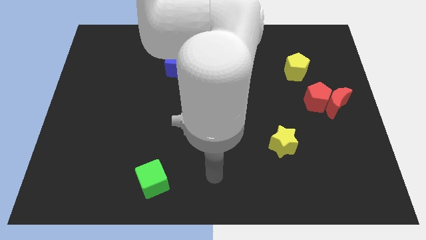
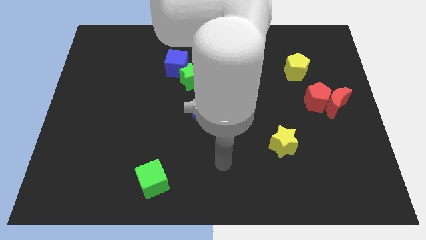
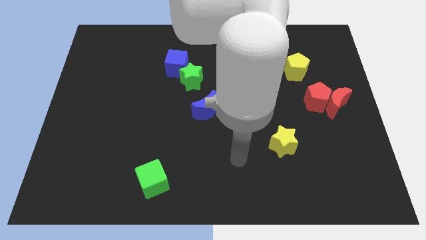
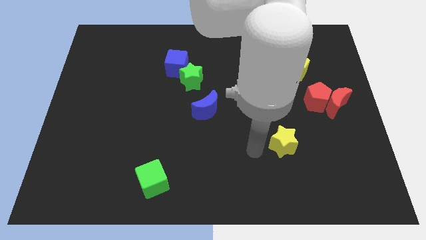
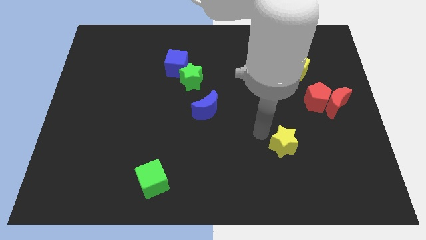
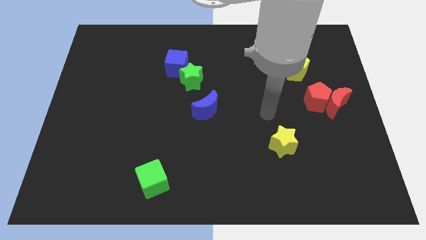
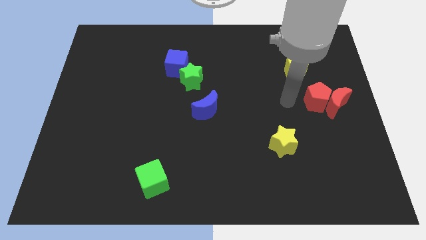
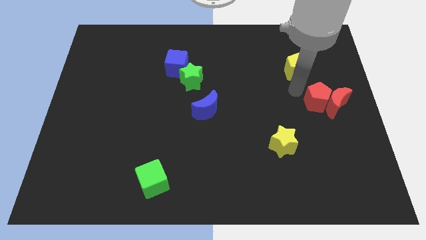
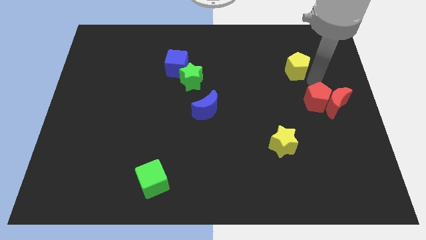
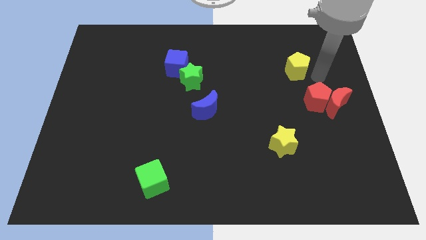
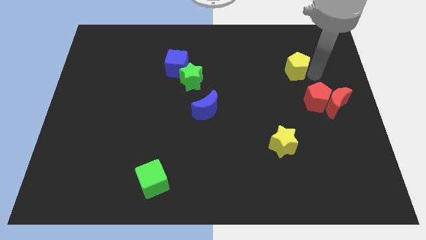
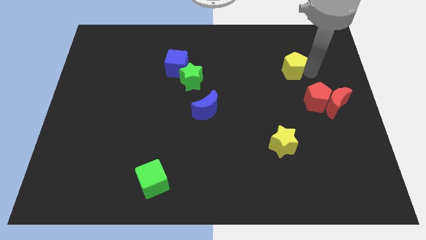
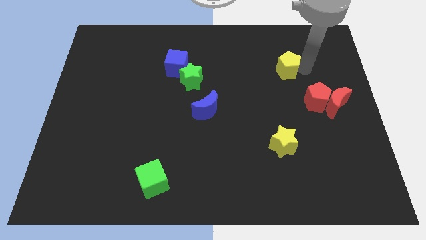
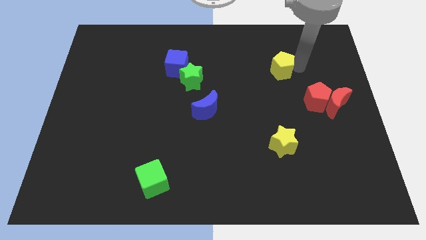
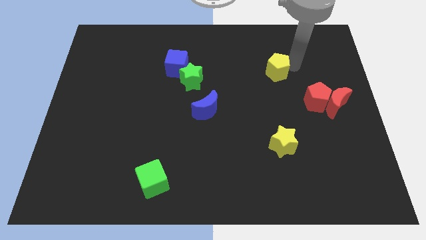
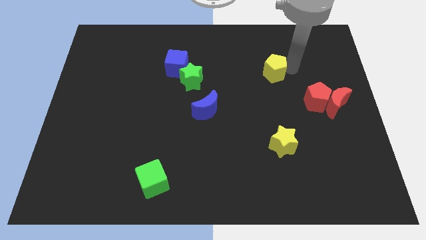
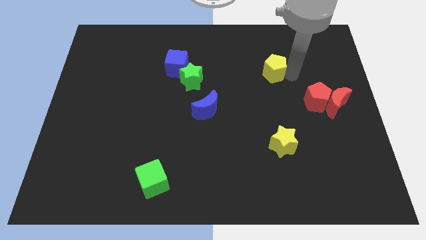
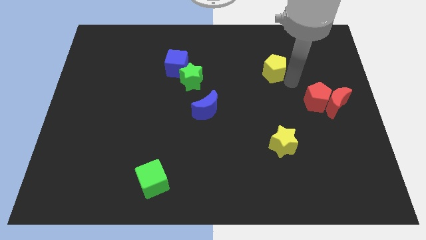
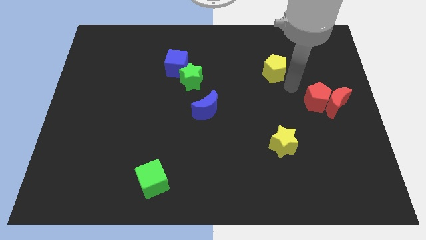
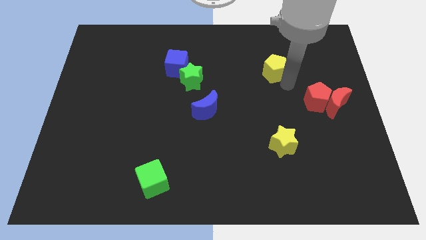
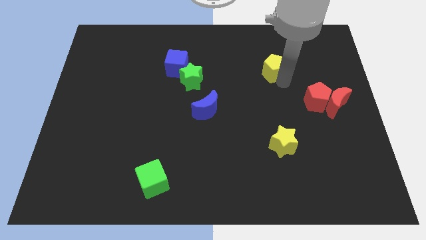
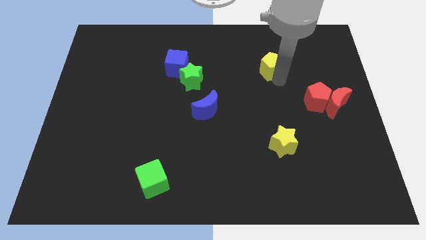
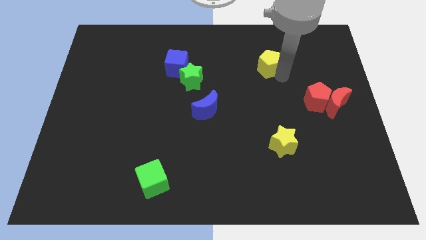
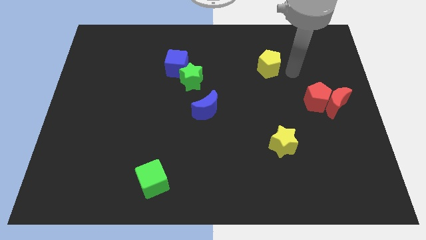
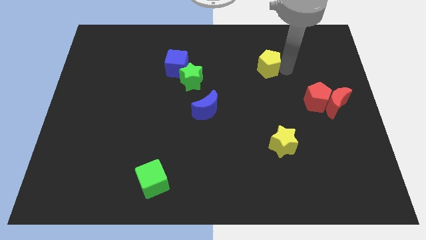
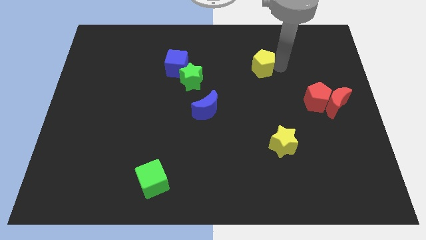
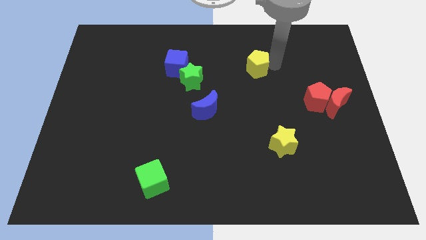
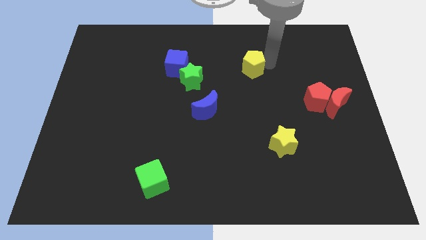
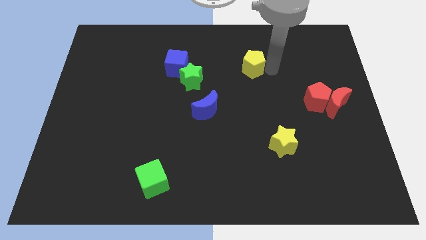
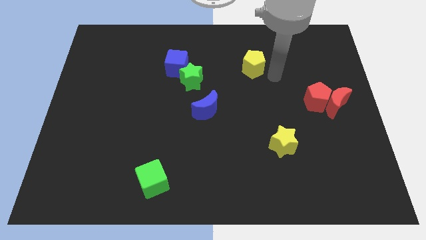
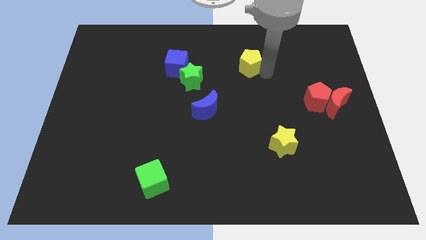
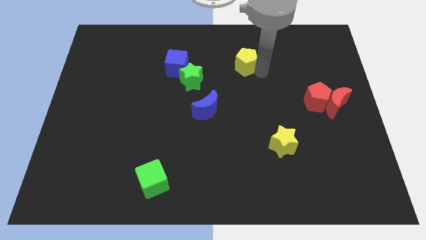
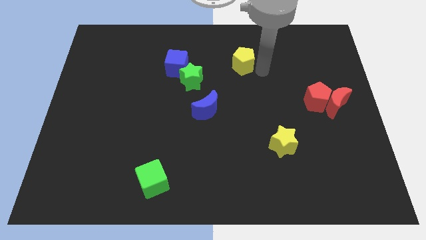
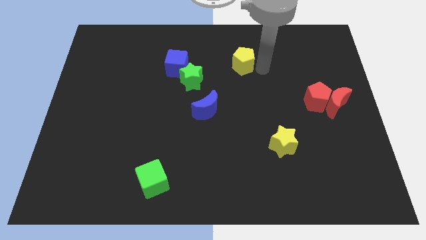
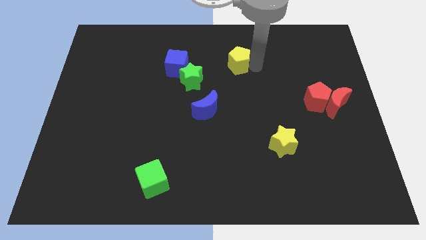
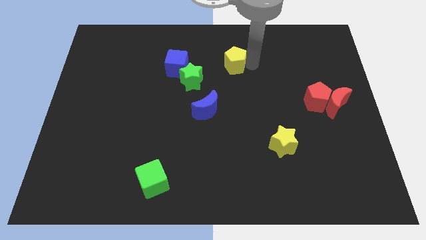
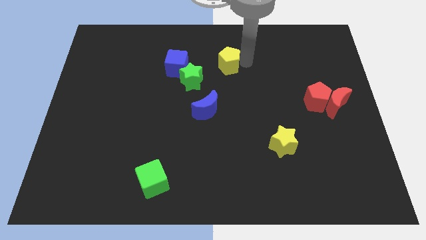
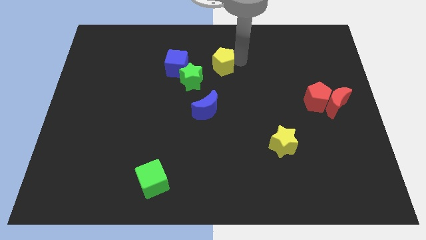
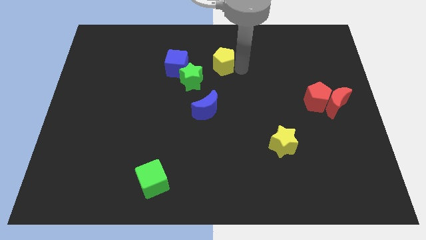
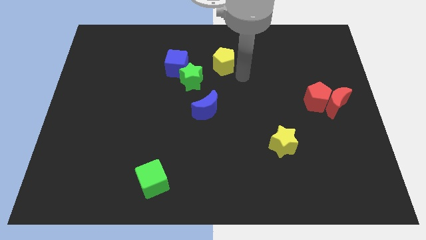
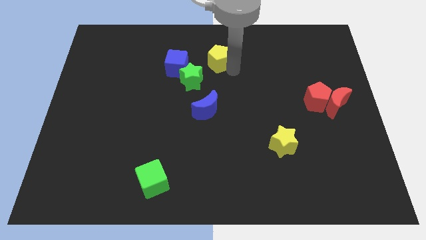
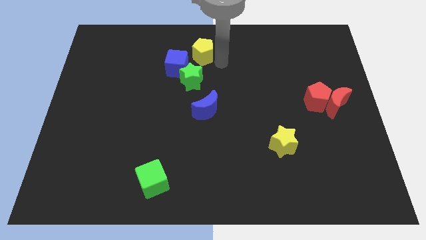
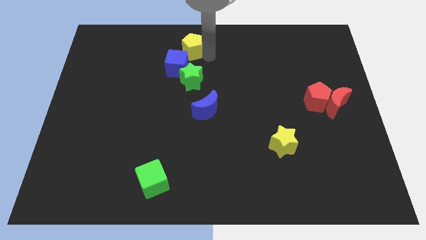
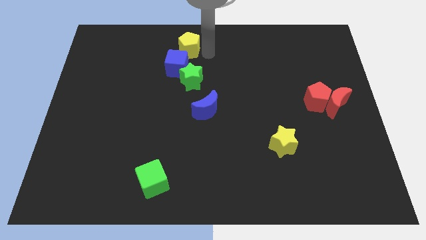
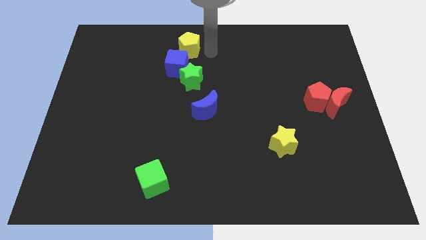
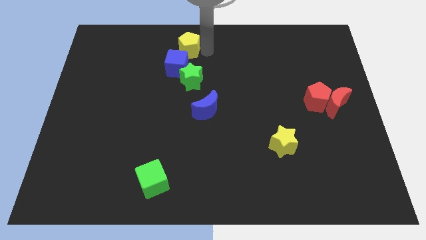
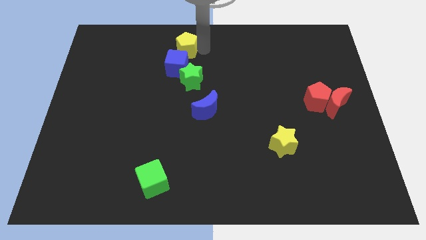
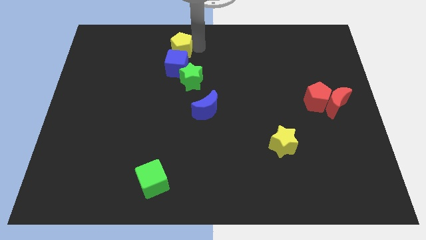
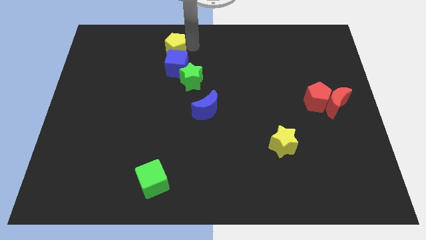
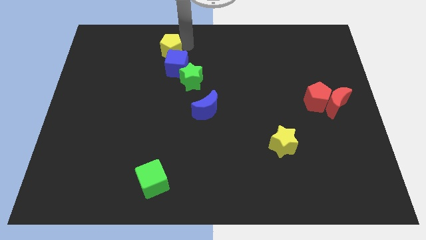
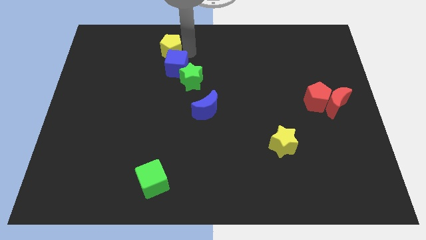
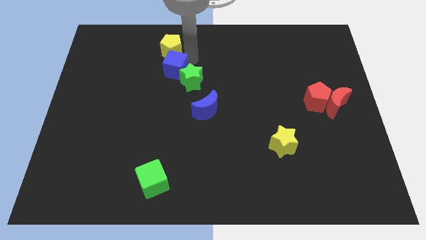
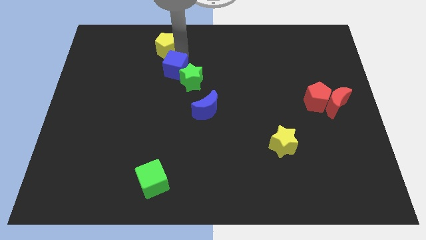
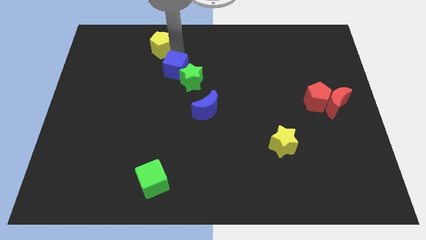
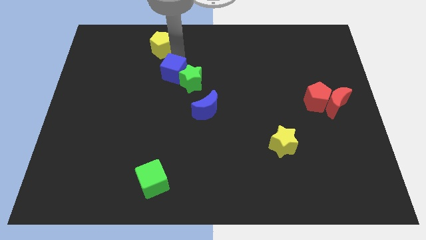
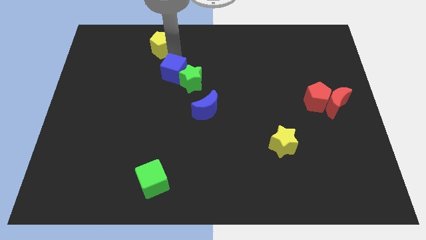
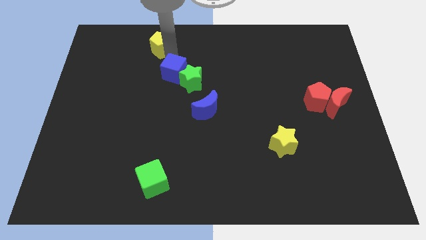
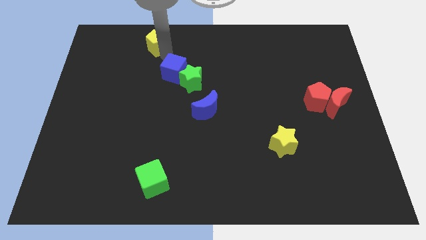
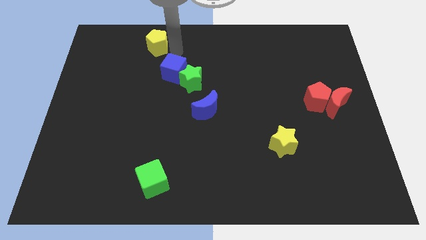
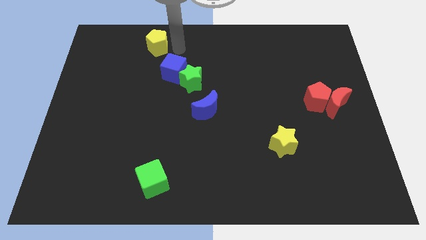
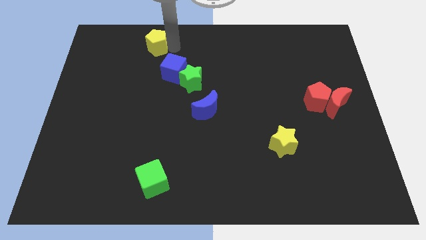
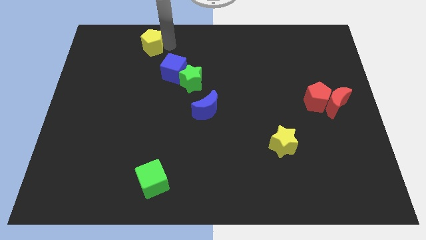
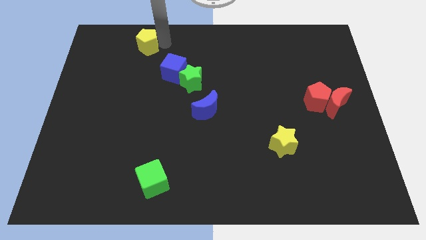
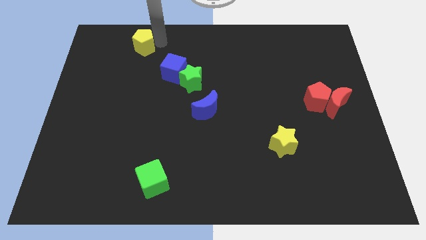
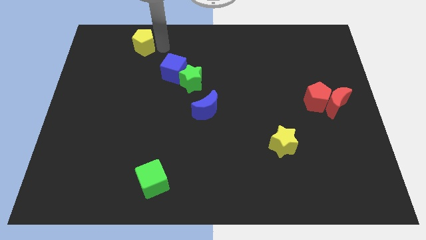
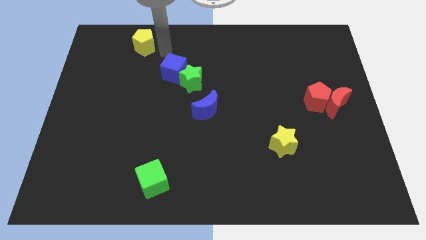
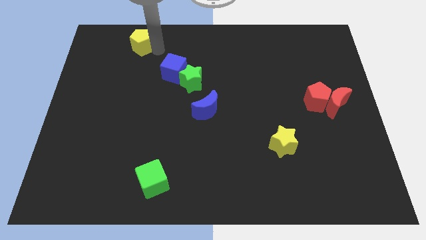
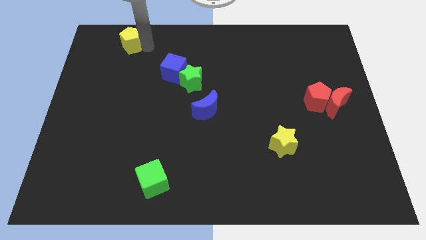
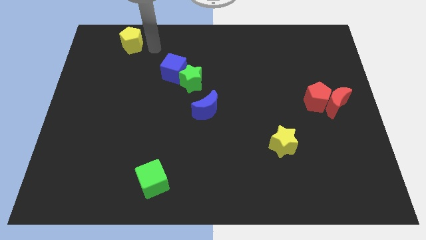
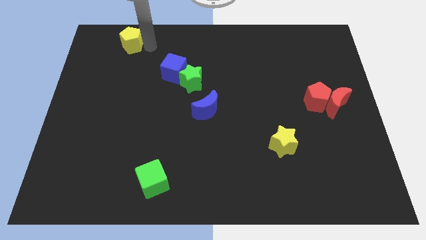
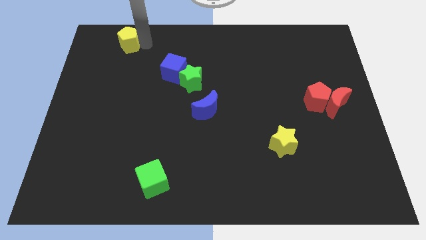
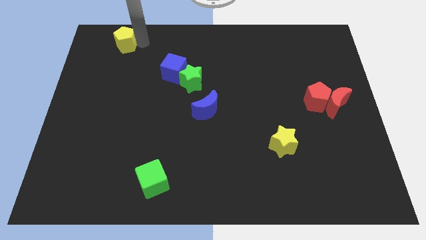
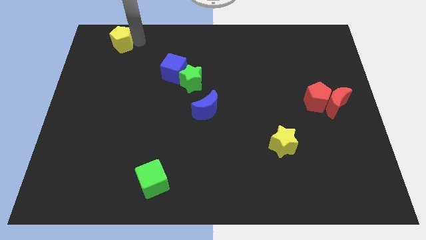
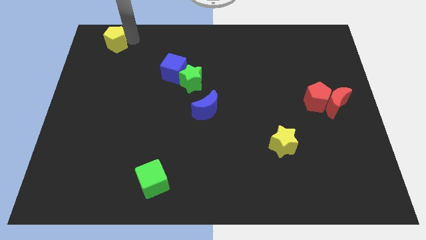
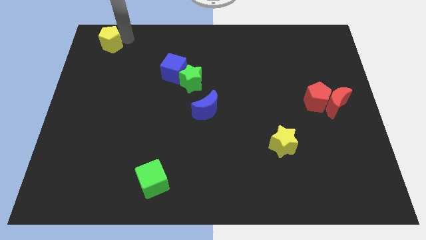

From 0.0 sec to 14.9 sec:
move the yellow pentagon to the upper left corner
